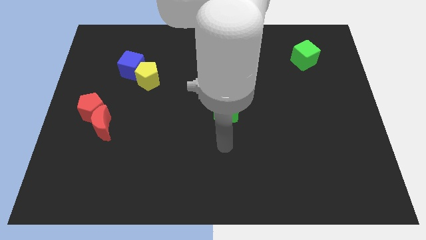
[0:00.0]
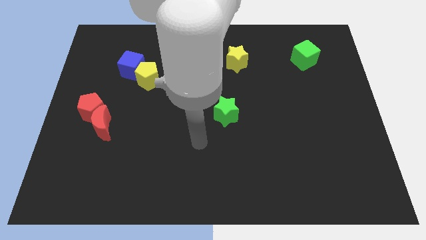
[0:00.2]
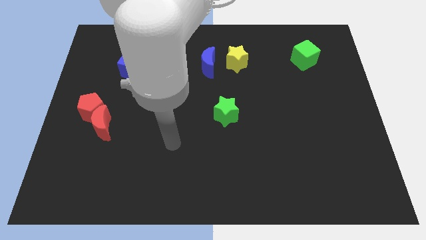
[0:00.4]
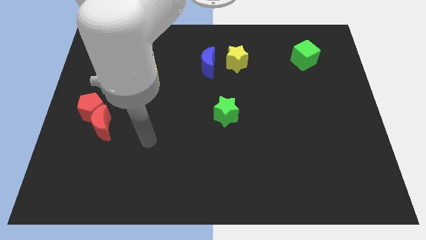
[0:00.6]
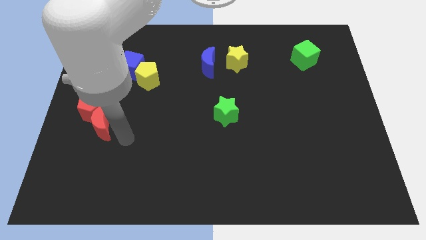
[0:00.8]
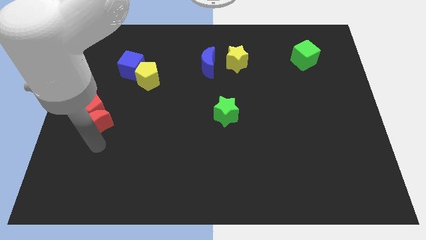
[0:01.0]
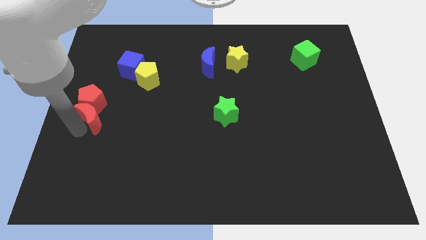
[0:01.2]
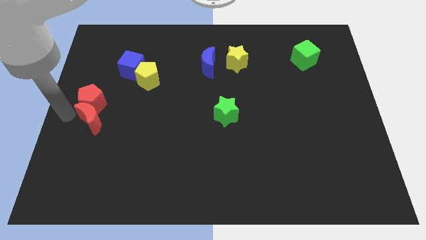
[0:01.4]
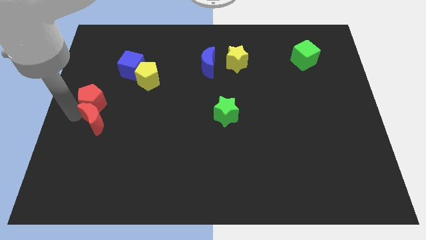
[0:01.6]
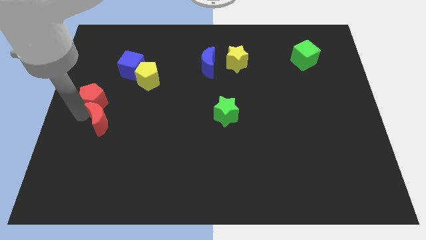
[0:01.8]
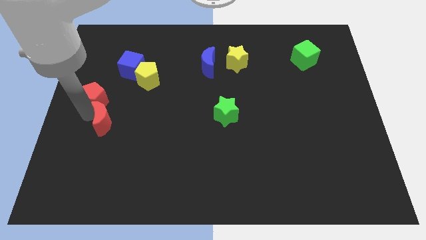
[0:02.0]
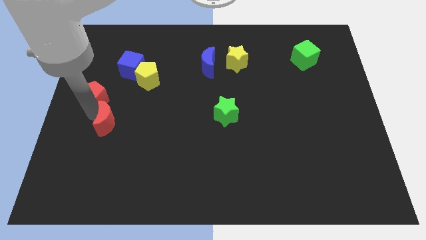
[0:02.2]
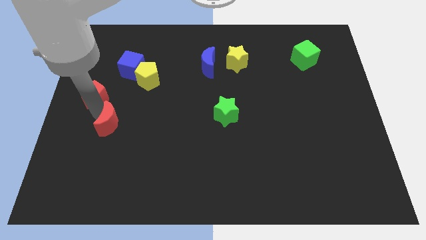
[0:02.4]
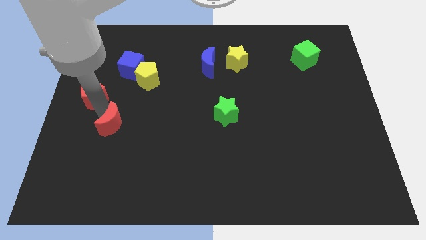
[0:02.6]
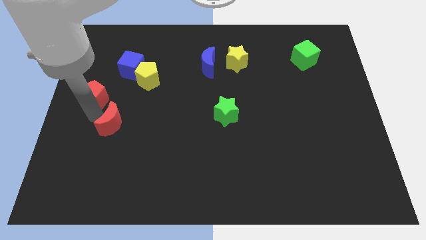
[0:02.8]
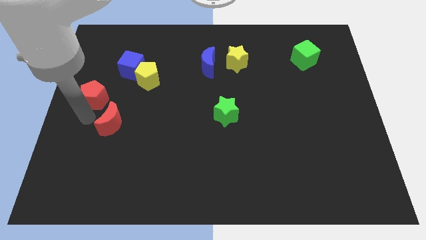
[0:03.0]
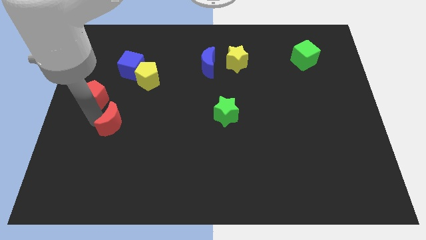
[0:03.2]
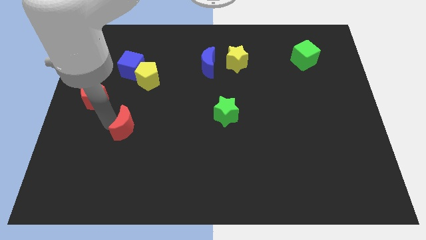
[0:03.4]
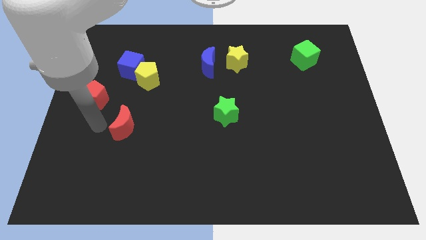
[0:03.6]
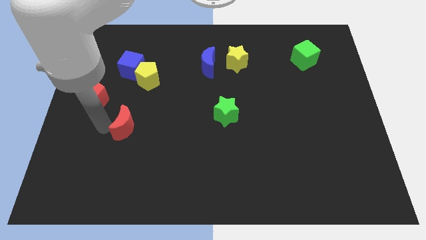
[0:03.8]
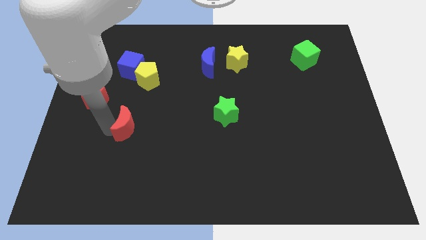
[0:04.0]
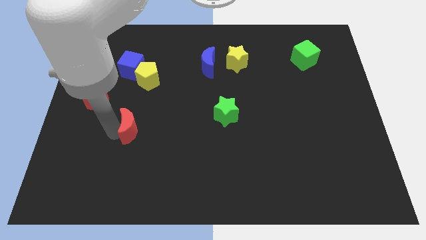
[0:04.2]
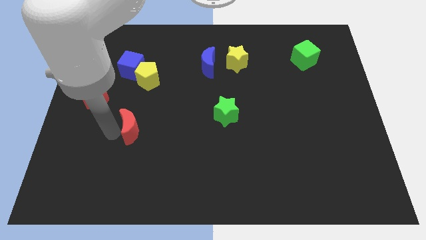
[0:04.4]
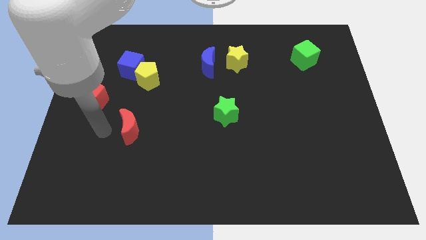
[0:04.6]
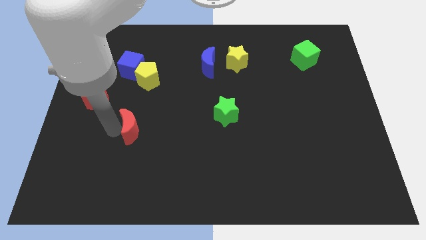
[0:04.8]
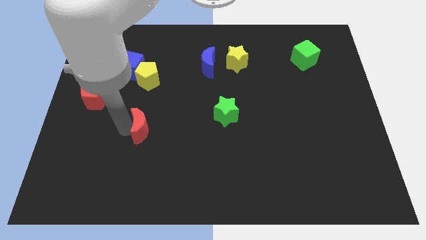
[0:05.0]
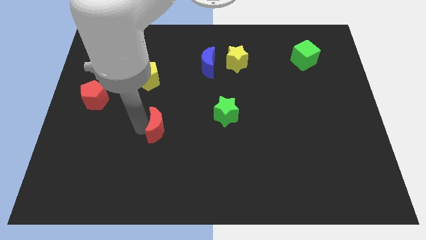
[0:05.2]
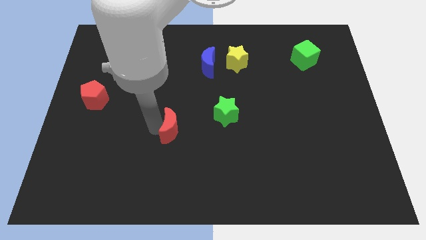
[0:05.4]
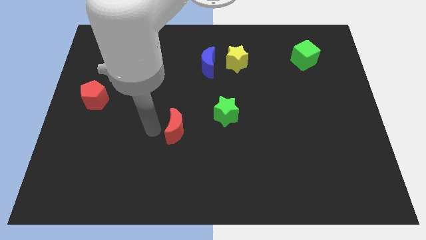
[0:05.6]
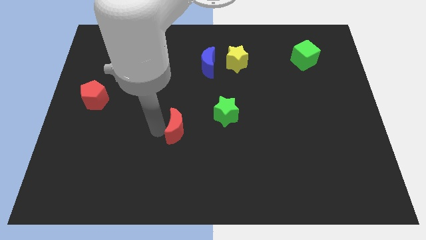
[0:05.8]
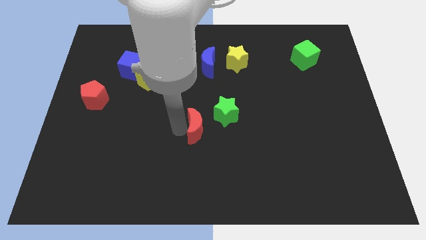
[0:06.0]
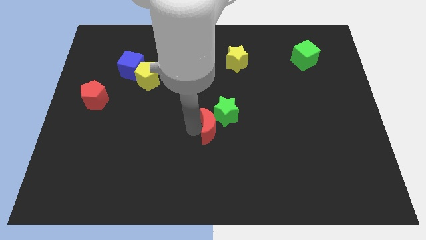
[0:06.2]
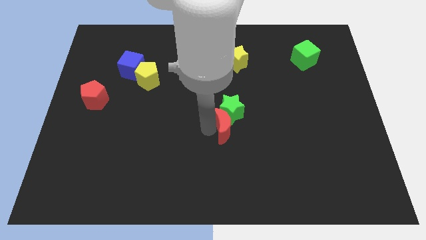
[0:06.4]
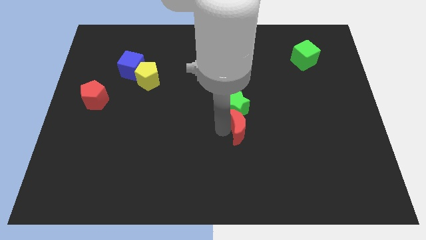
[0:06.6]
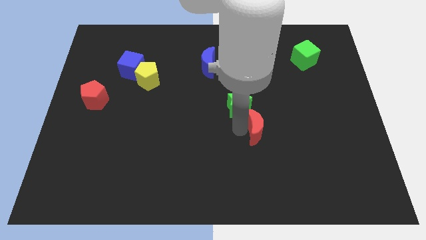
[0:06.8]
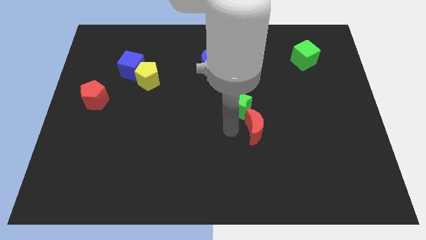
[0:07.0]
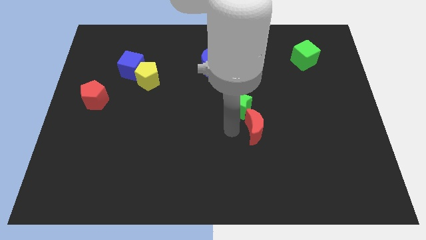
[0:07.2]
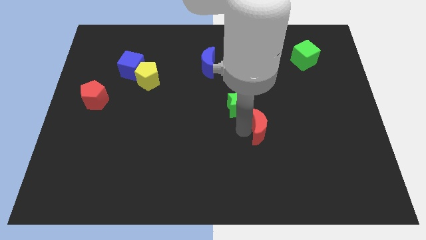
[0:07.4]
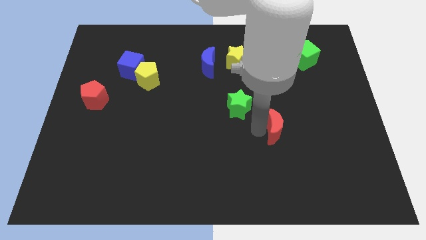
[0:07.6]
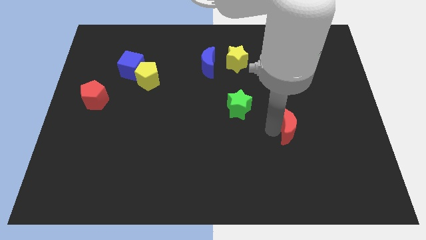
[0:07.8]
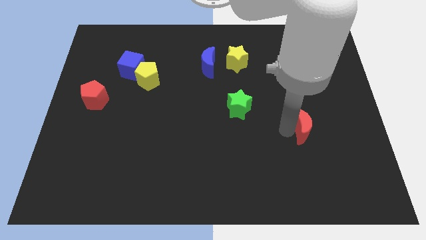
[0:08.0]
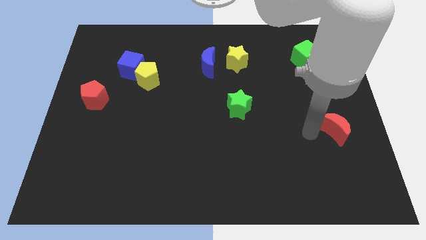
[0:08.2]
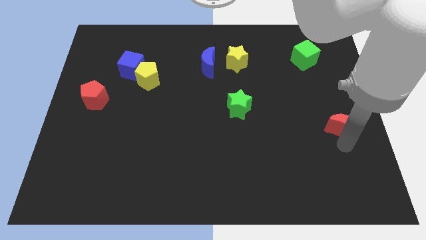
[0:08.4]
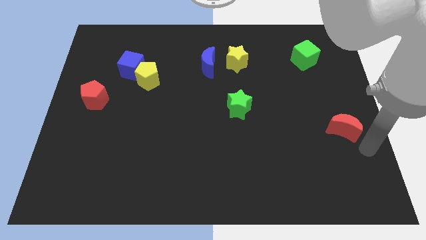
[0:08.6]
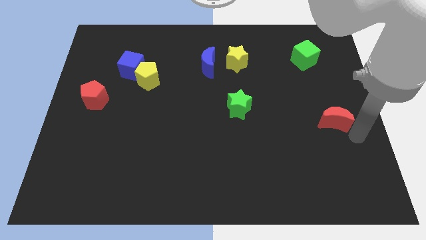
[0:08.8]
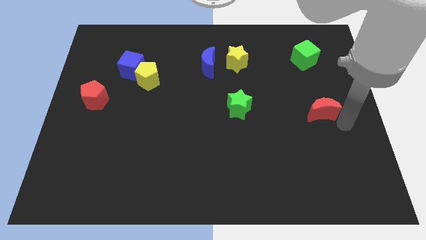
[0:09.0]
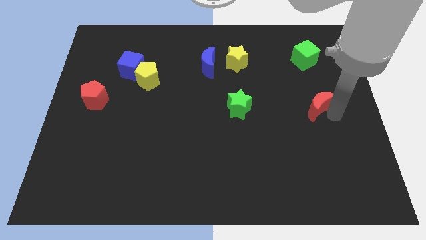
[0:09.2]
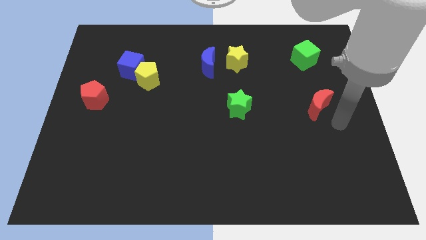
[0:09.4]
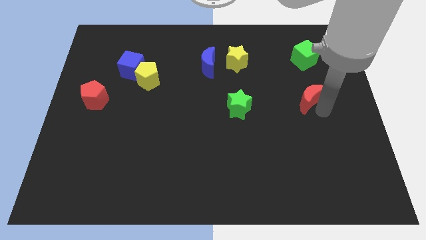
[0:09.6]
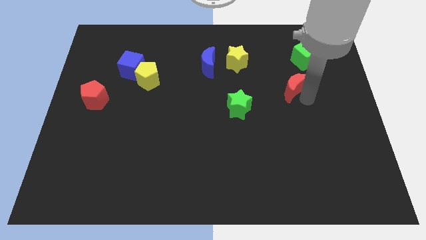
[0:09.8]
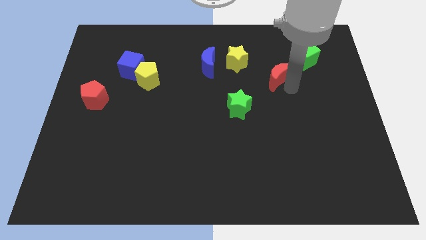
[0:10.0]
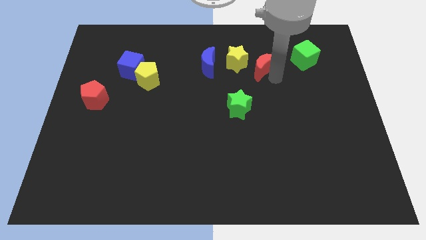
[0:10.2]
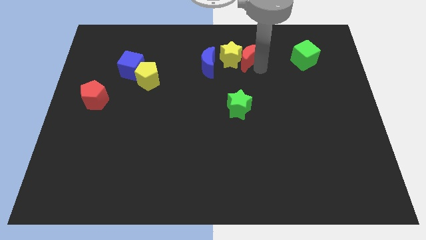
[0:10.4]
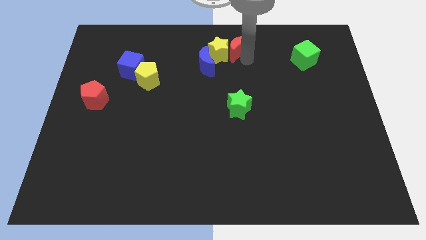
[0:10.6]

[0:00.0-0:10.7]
put the red moon to the towards your base

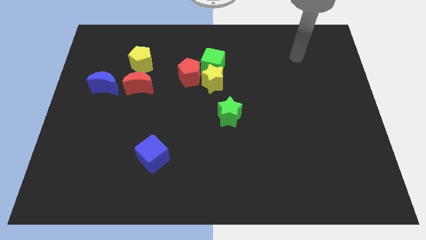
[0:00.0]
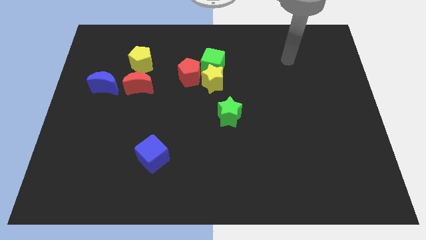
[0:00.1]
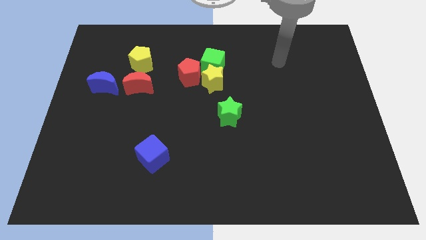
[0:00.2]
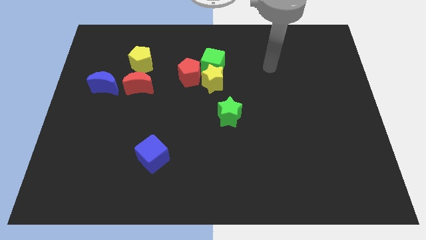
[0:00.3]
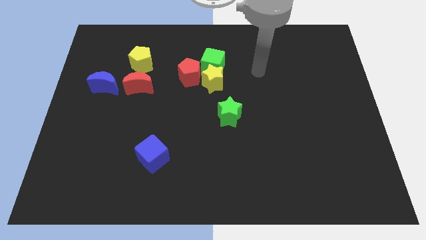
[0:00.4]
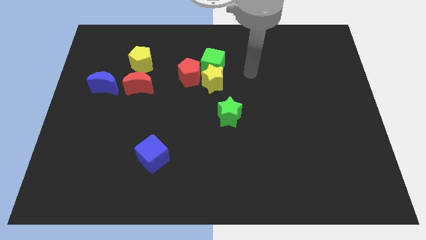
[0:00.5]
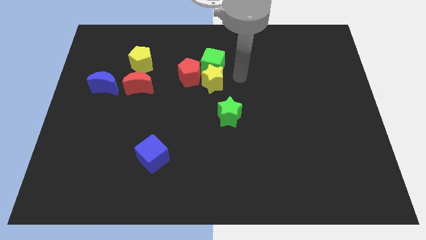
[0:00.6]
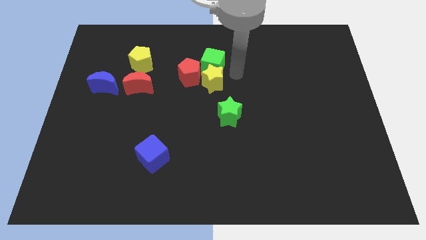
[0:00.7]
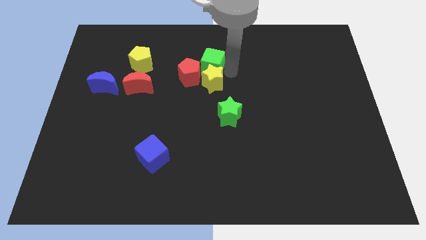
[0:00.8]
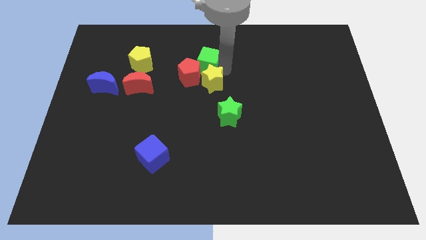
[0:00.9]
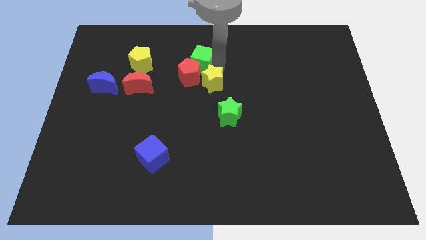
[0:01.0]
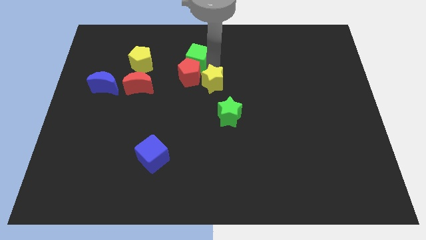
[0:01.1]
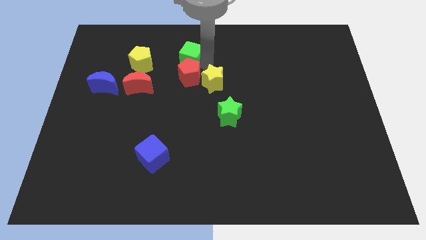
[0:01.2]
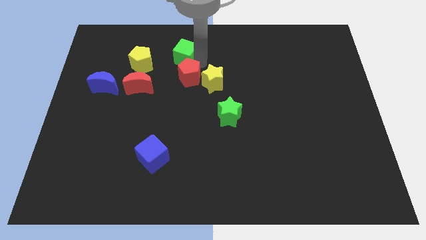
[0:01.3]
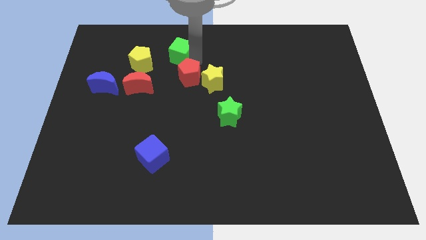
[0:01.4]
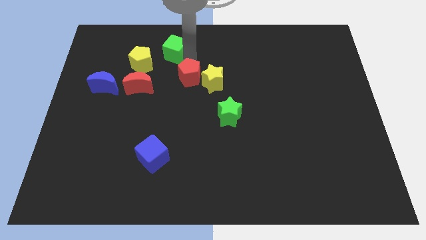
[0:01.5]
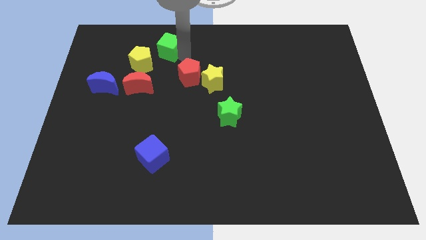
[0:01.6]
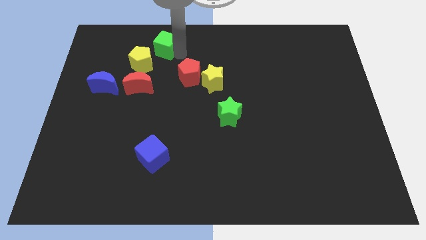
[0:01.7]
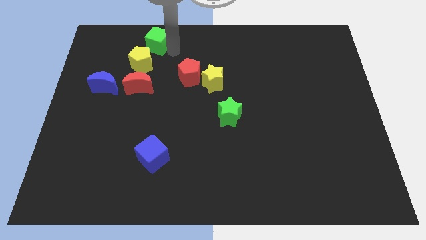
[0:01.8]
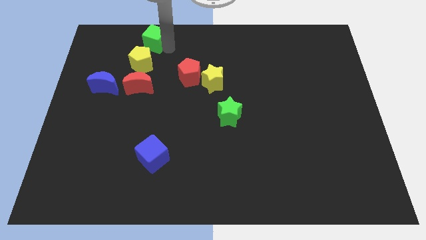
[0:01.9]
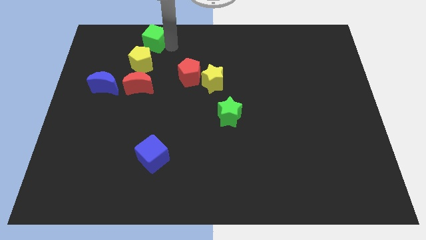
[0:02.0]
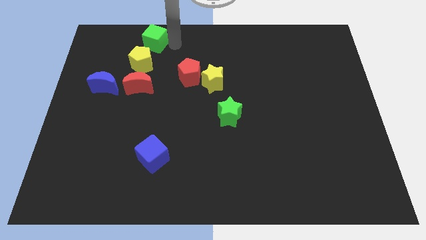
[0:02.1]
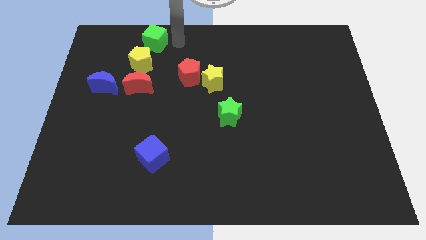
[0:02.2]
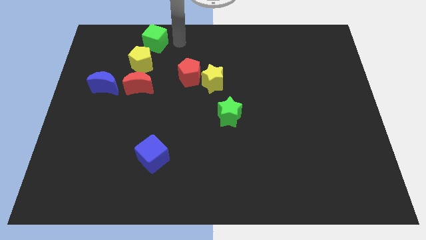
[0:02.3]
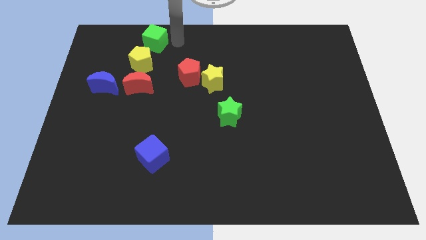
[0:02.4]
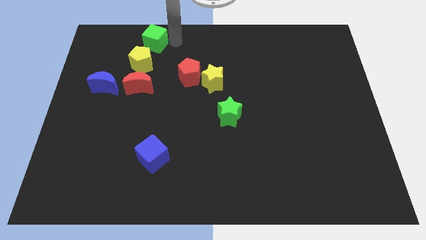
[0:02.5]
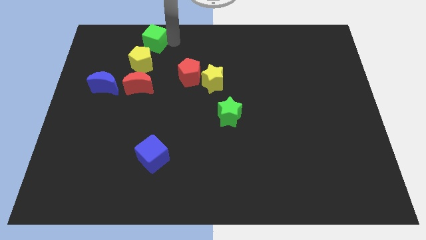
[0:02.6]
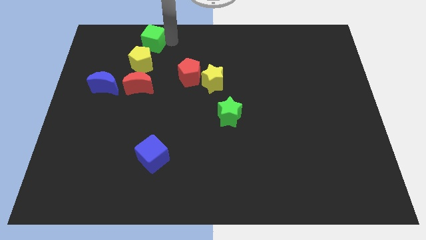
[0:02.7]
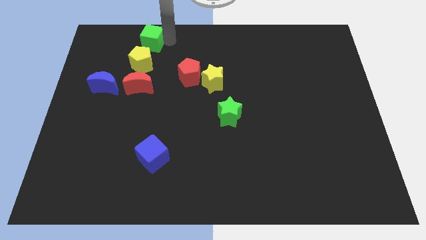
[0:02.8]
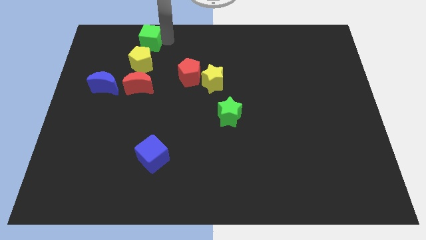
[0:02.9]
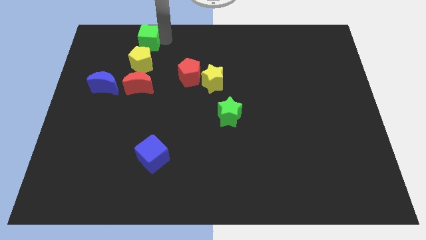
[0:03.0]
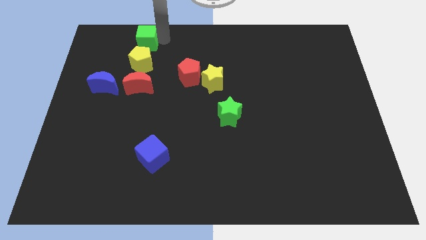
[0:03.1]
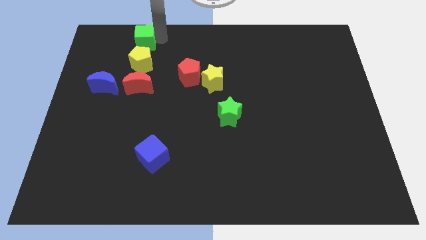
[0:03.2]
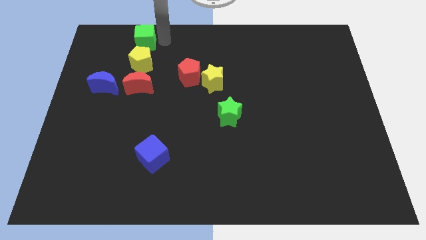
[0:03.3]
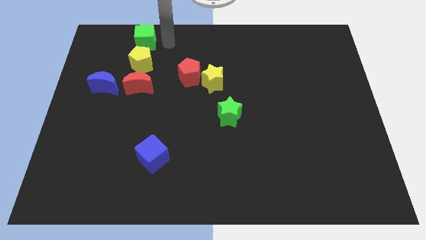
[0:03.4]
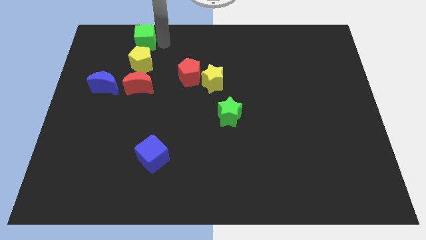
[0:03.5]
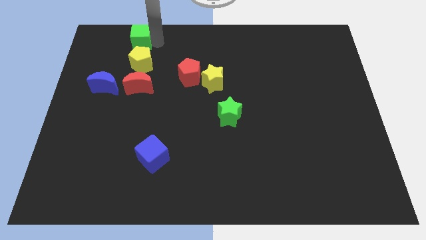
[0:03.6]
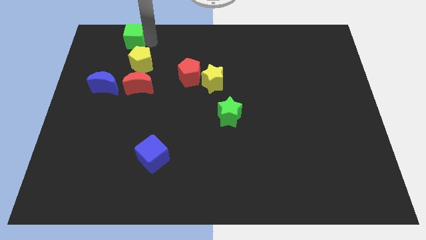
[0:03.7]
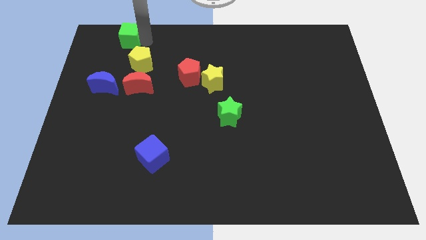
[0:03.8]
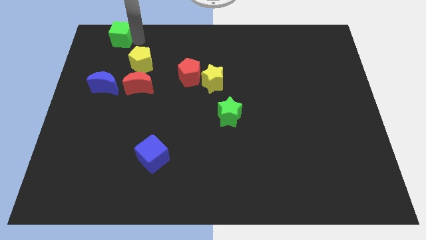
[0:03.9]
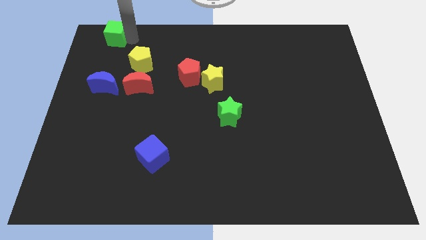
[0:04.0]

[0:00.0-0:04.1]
push the green cube to the top left
